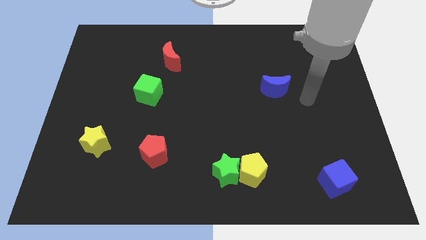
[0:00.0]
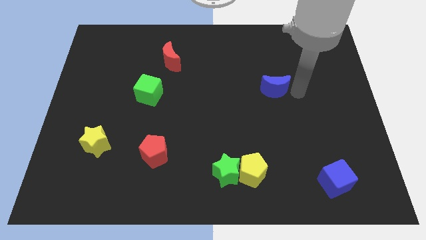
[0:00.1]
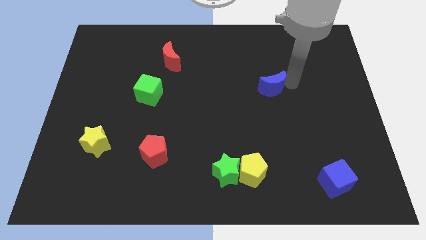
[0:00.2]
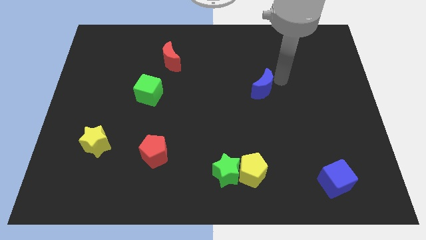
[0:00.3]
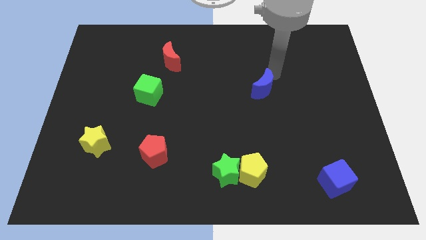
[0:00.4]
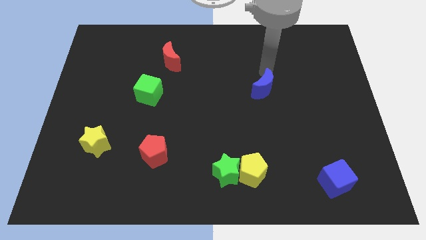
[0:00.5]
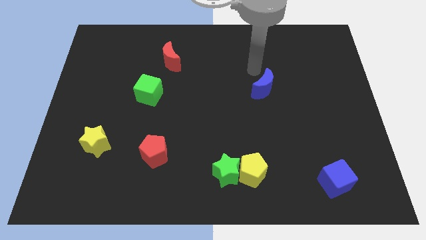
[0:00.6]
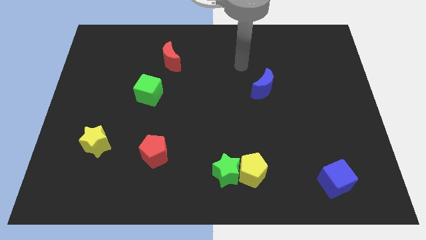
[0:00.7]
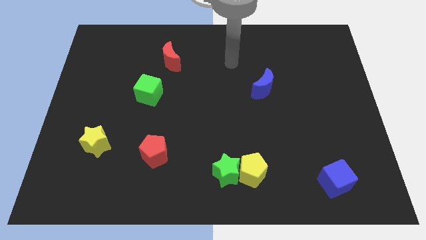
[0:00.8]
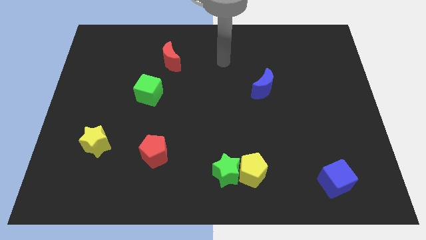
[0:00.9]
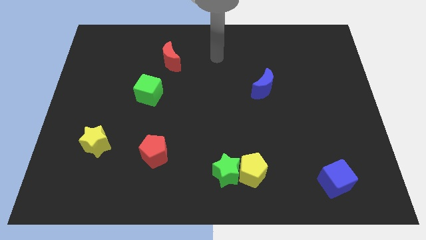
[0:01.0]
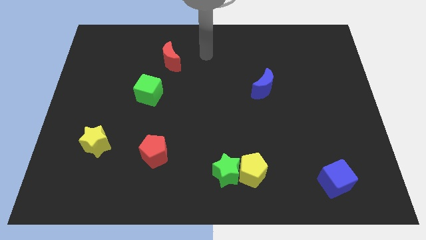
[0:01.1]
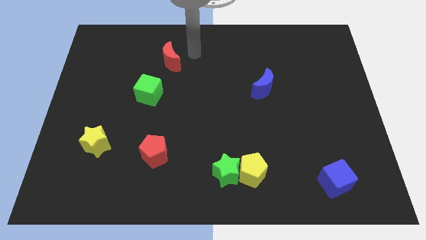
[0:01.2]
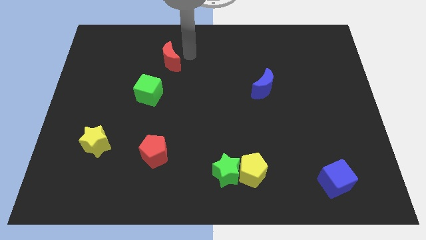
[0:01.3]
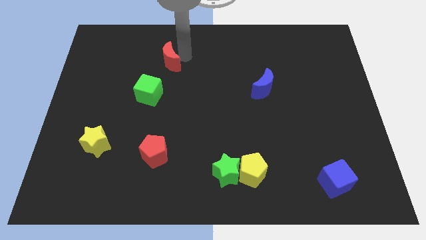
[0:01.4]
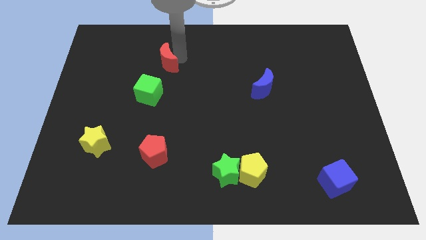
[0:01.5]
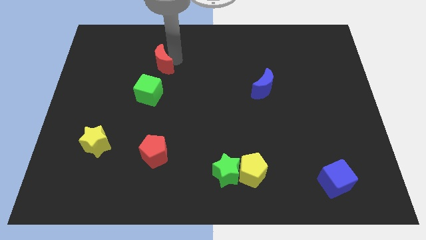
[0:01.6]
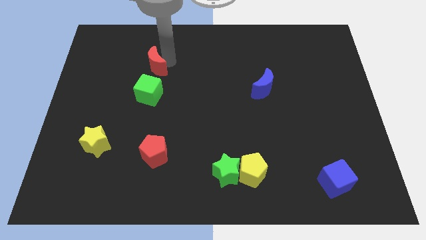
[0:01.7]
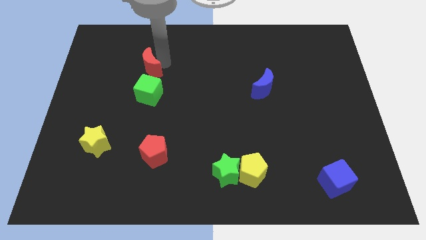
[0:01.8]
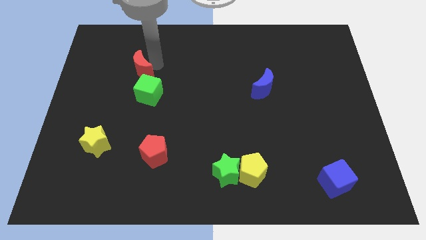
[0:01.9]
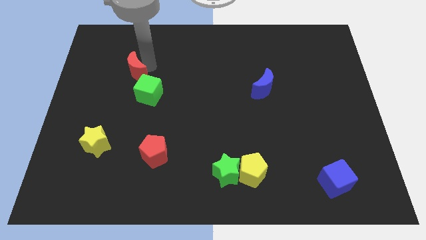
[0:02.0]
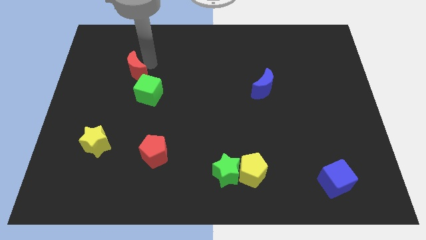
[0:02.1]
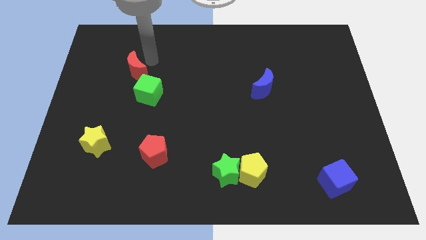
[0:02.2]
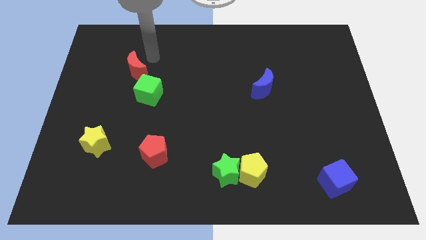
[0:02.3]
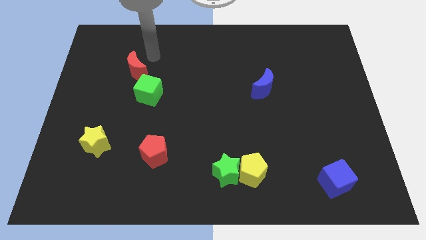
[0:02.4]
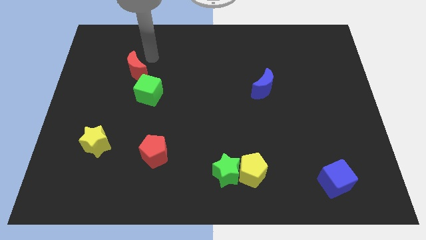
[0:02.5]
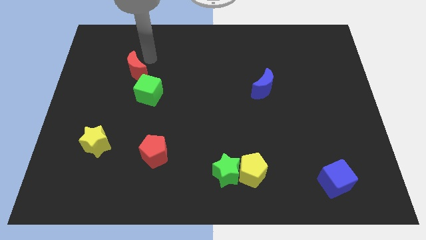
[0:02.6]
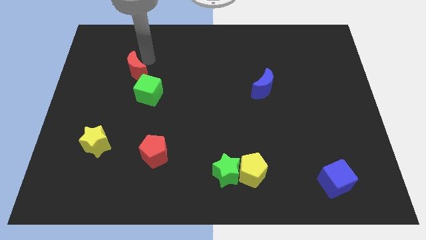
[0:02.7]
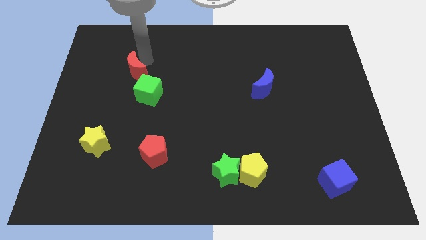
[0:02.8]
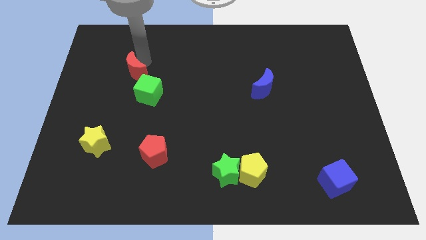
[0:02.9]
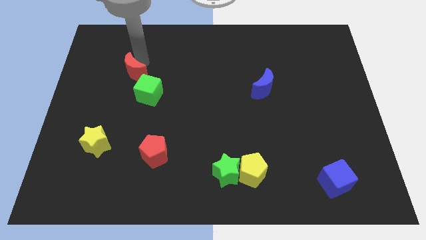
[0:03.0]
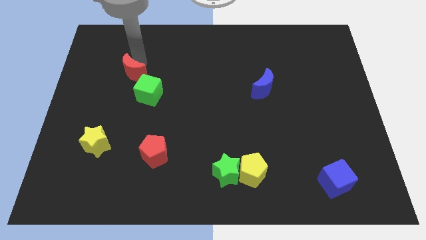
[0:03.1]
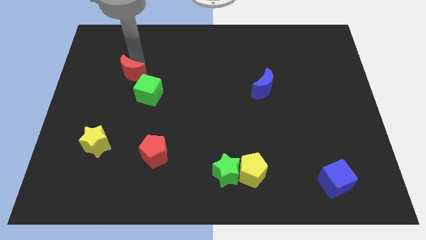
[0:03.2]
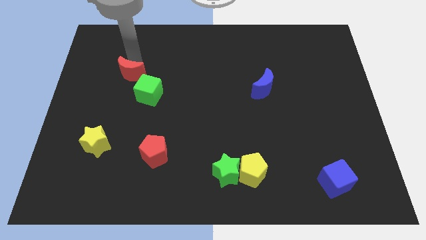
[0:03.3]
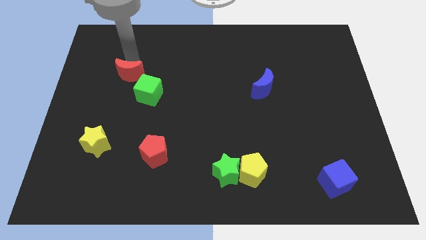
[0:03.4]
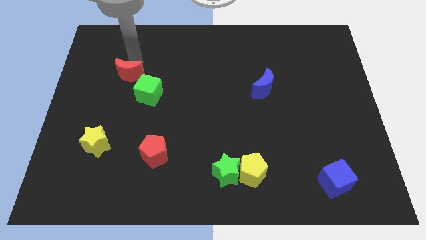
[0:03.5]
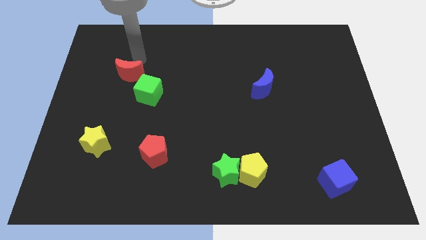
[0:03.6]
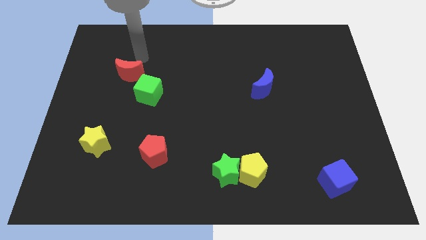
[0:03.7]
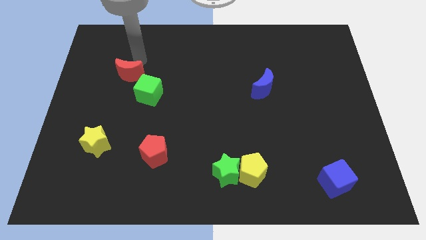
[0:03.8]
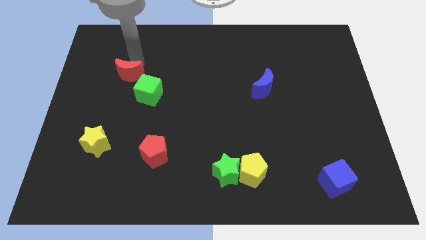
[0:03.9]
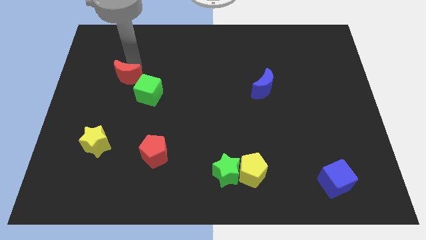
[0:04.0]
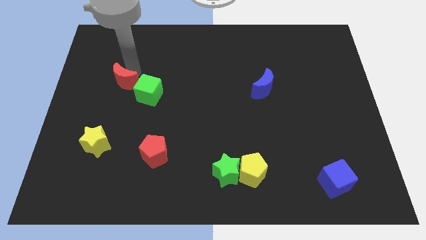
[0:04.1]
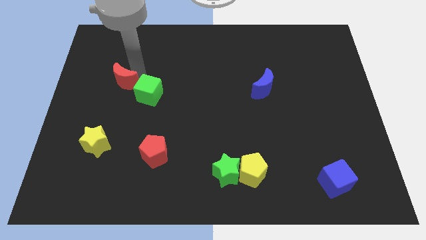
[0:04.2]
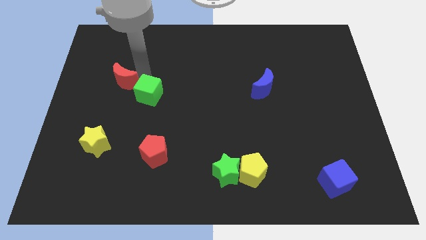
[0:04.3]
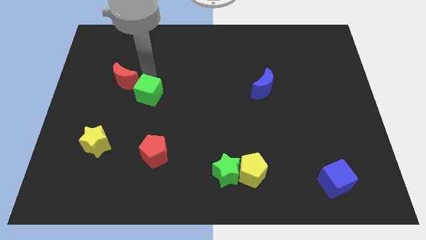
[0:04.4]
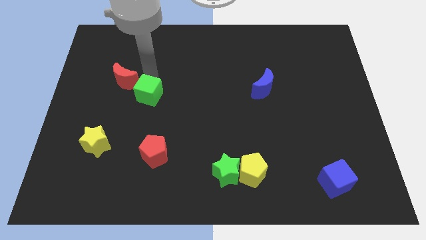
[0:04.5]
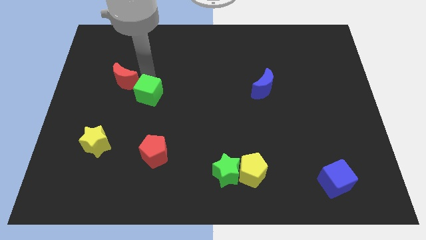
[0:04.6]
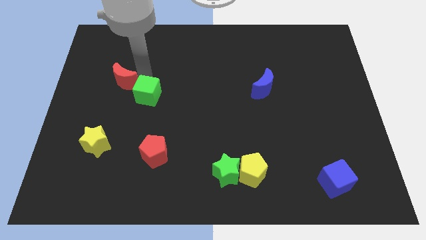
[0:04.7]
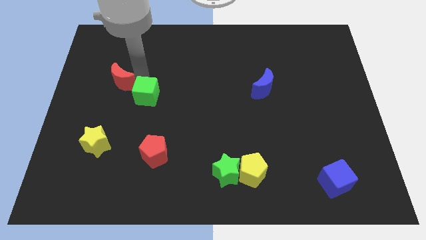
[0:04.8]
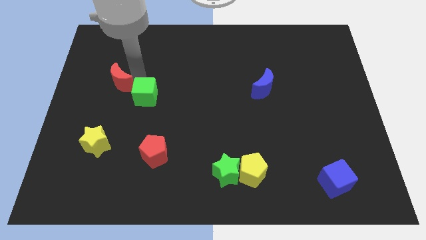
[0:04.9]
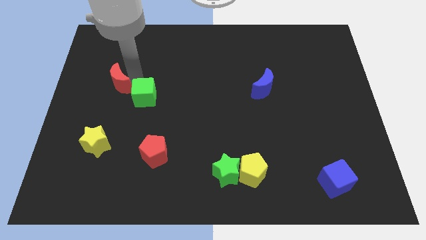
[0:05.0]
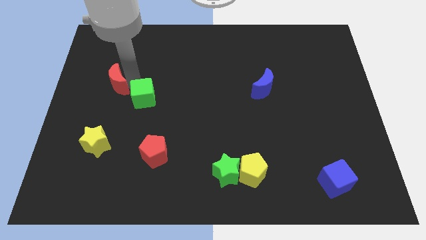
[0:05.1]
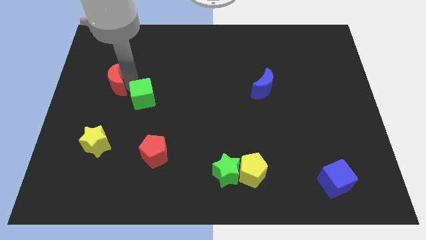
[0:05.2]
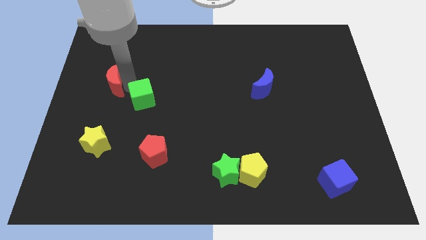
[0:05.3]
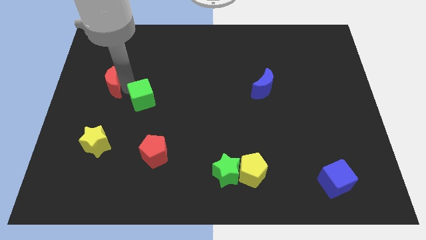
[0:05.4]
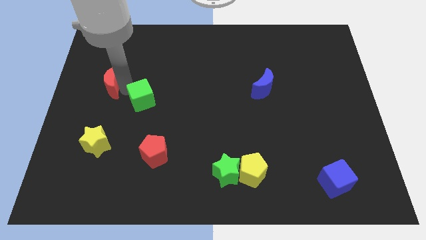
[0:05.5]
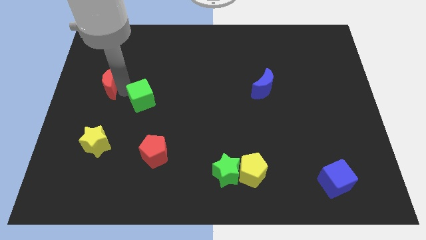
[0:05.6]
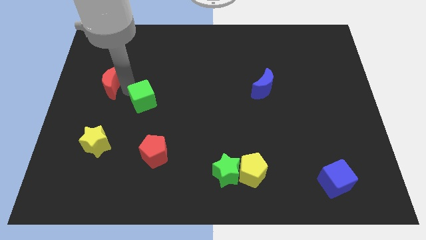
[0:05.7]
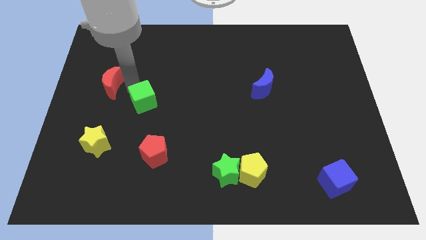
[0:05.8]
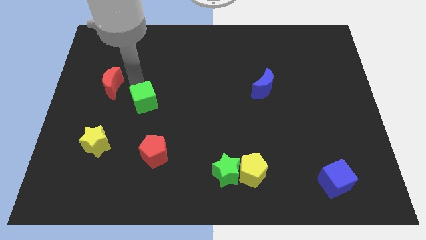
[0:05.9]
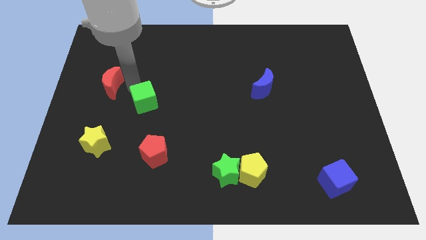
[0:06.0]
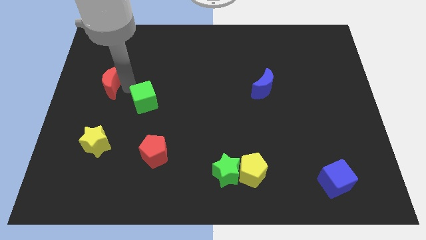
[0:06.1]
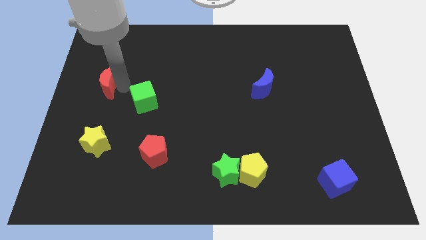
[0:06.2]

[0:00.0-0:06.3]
move the red moon to the left side
